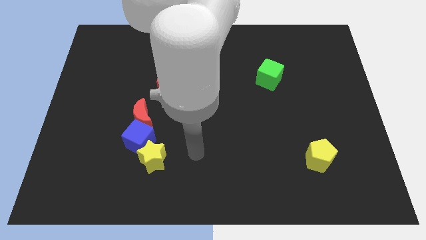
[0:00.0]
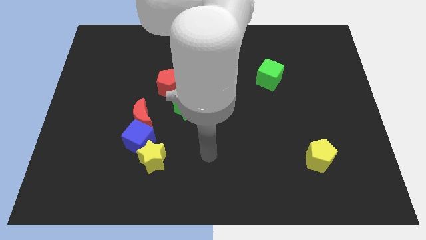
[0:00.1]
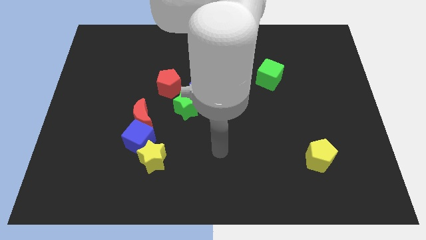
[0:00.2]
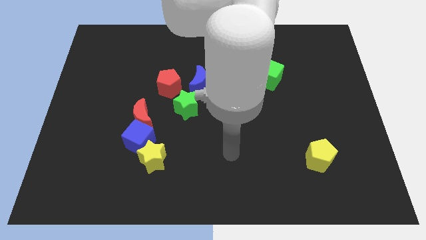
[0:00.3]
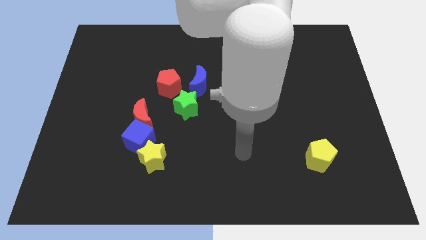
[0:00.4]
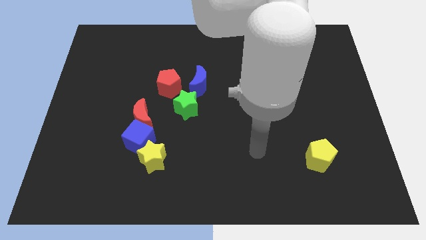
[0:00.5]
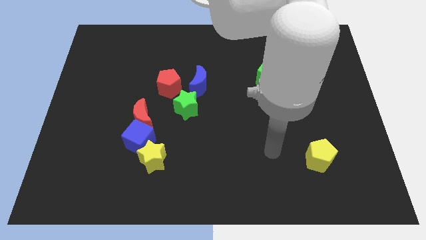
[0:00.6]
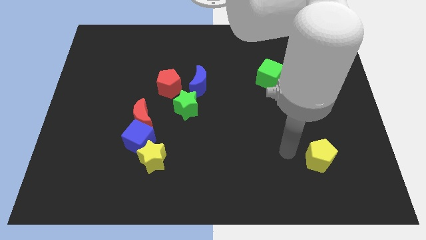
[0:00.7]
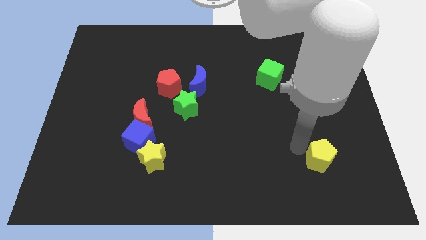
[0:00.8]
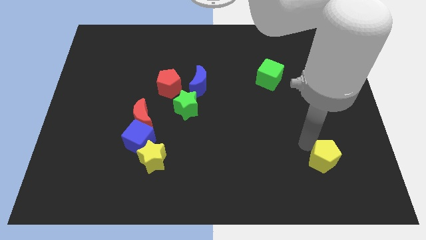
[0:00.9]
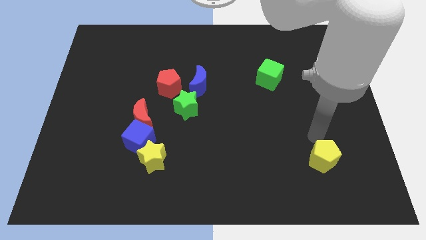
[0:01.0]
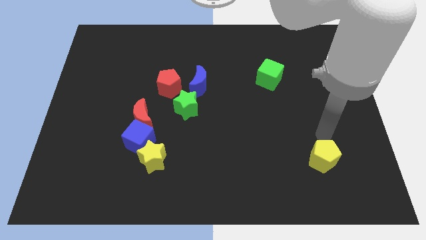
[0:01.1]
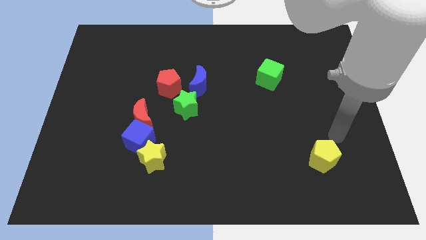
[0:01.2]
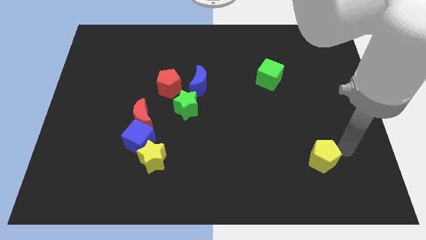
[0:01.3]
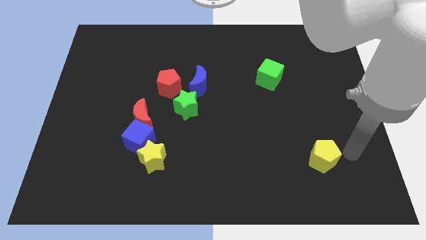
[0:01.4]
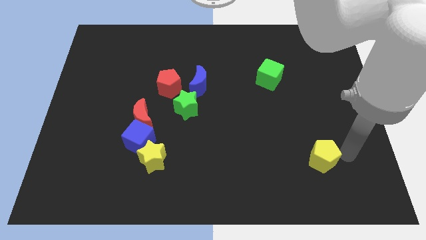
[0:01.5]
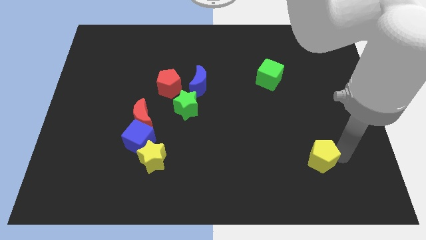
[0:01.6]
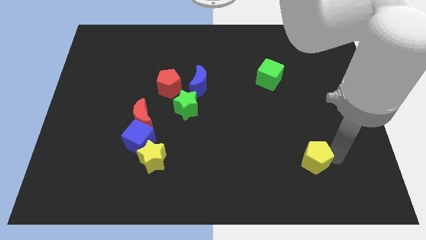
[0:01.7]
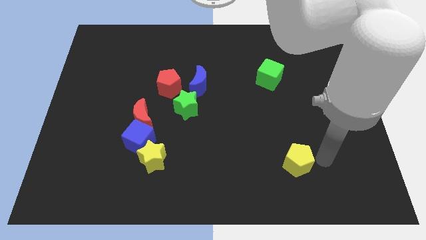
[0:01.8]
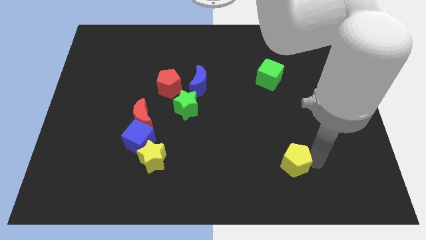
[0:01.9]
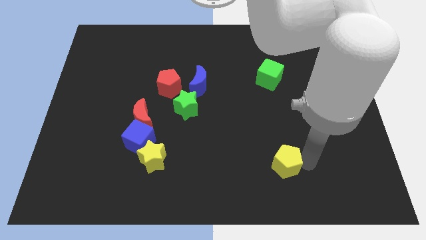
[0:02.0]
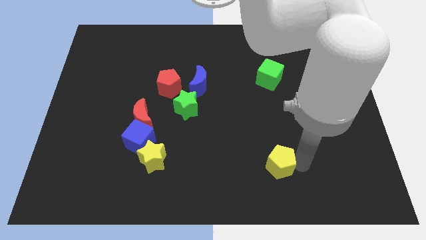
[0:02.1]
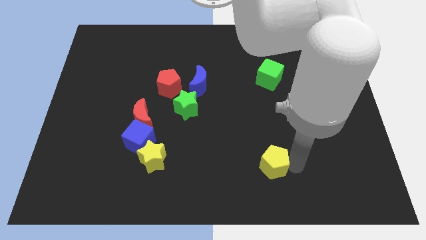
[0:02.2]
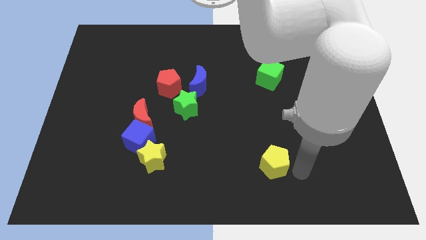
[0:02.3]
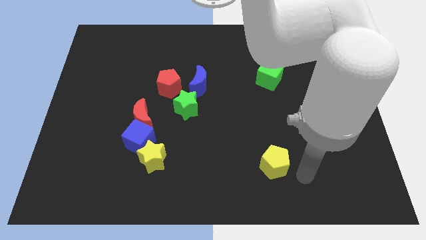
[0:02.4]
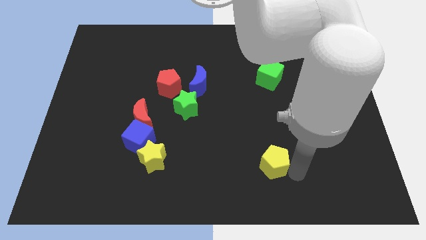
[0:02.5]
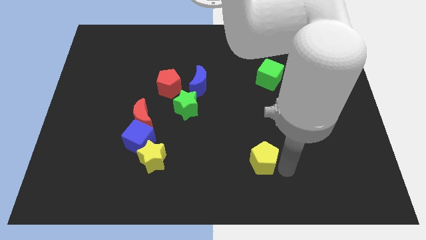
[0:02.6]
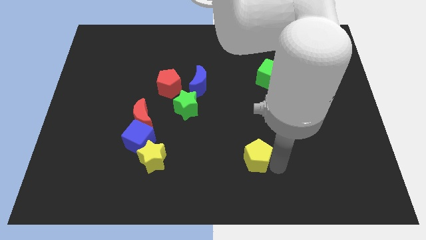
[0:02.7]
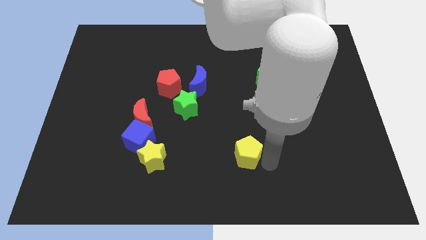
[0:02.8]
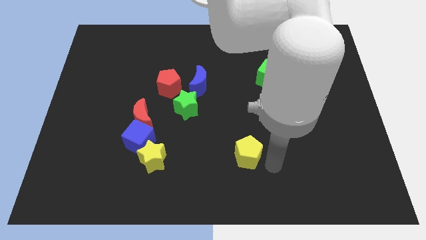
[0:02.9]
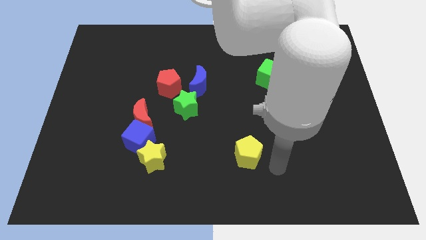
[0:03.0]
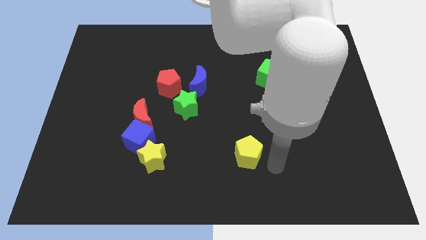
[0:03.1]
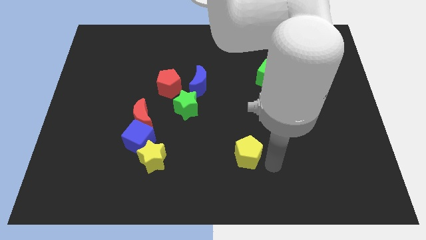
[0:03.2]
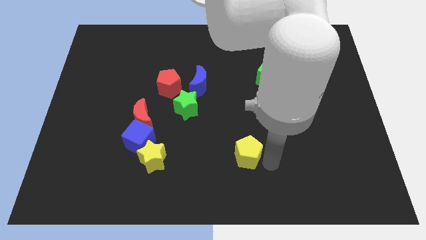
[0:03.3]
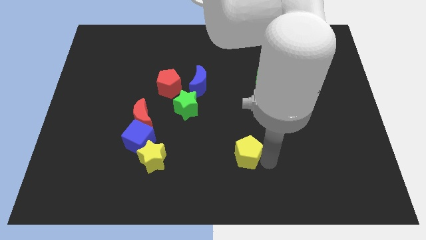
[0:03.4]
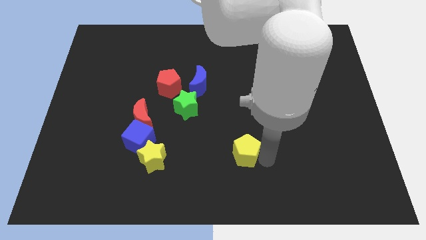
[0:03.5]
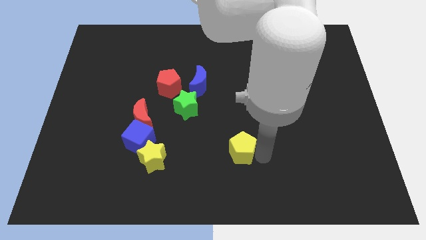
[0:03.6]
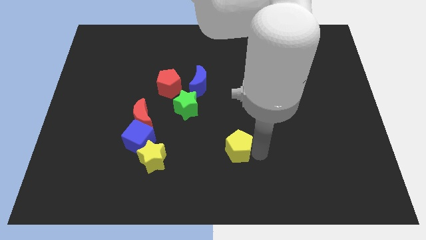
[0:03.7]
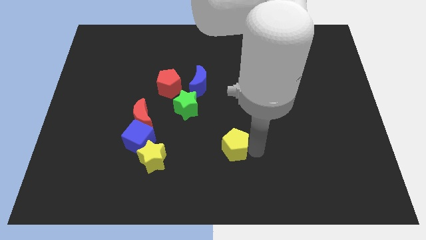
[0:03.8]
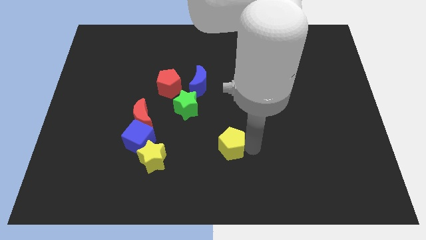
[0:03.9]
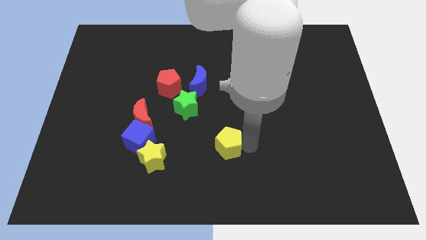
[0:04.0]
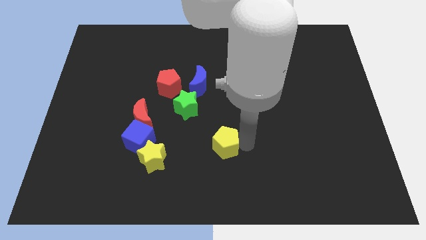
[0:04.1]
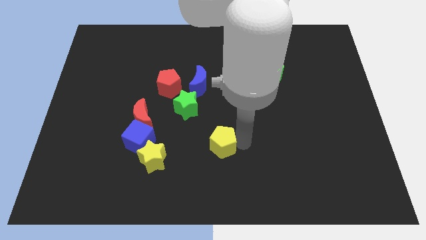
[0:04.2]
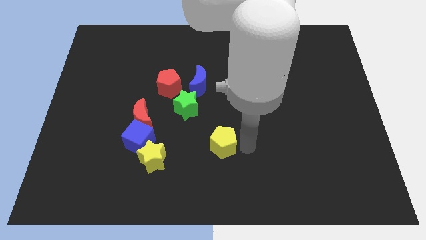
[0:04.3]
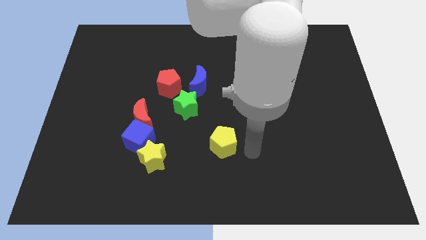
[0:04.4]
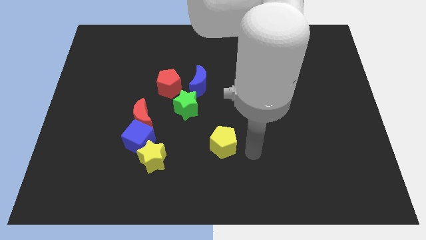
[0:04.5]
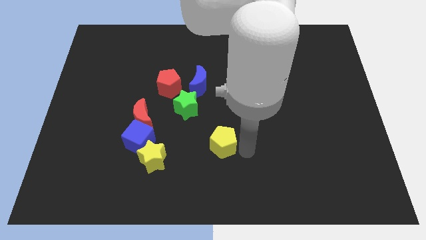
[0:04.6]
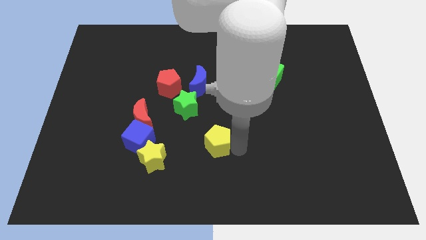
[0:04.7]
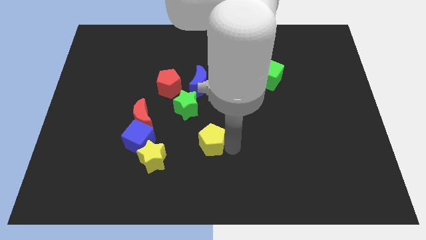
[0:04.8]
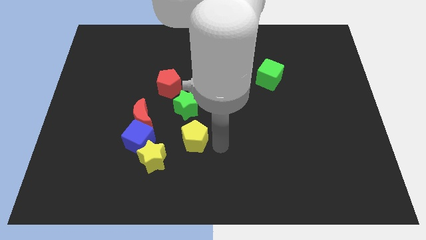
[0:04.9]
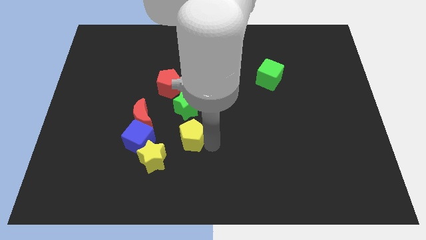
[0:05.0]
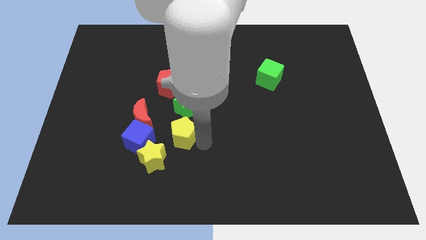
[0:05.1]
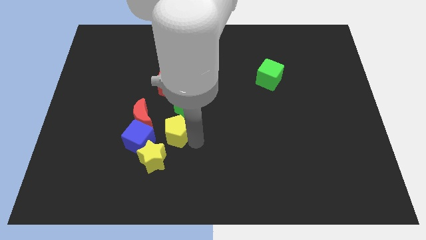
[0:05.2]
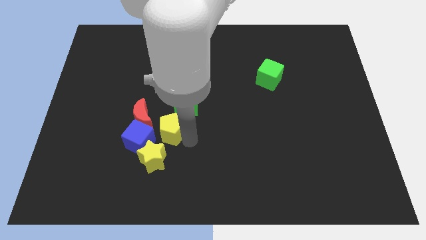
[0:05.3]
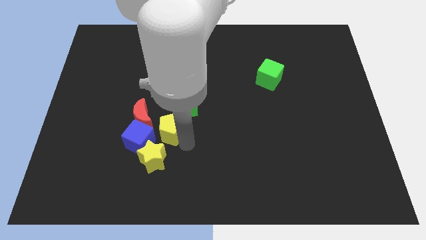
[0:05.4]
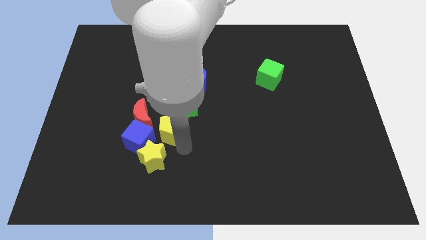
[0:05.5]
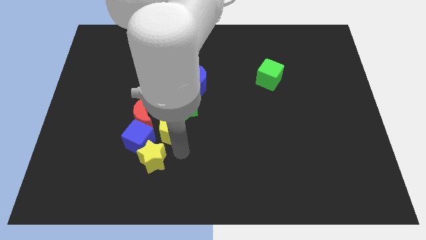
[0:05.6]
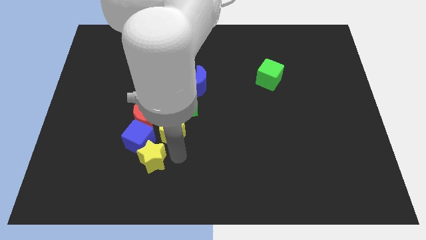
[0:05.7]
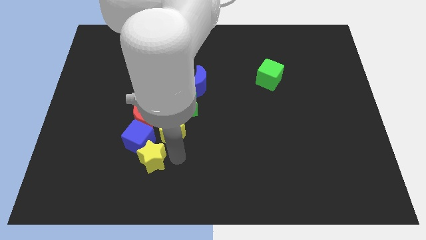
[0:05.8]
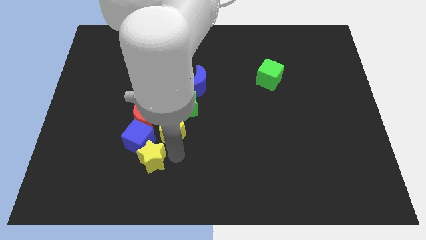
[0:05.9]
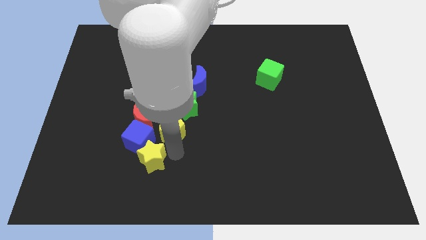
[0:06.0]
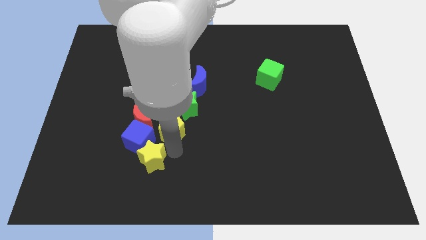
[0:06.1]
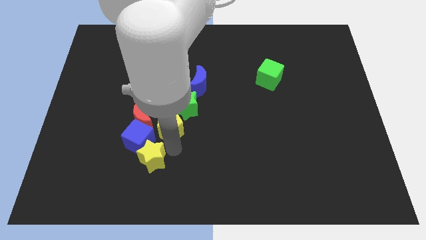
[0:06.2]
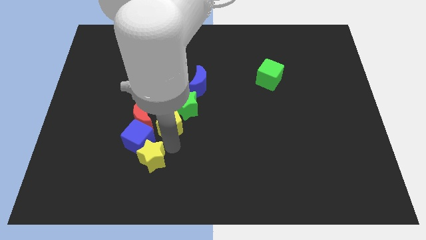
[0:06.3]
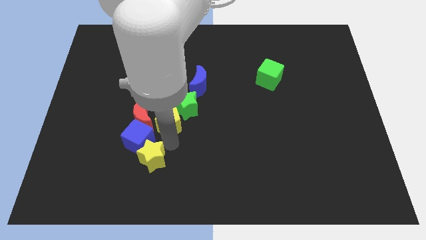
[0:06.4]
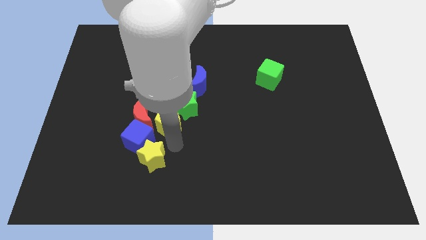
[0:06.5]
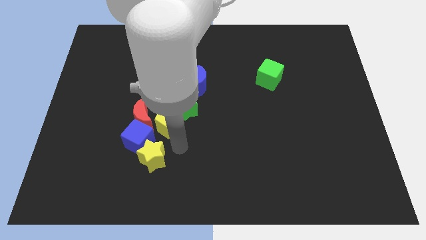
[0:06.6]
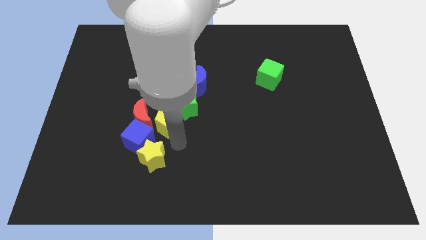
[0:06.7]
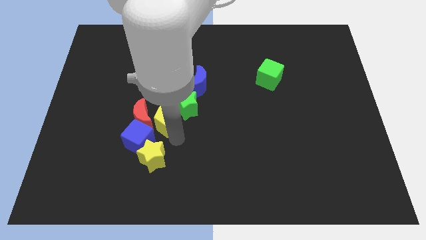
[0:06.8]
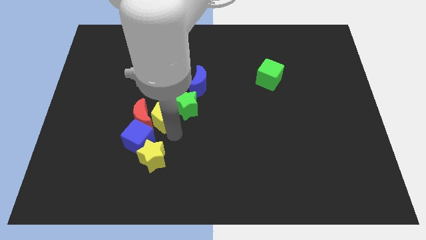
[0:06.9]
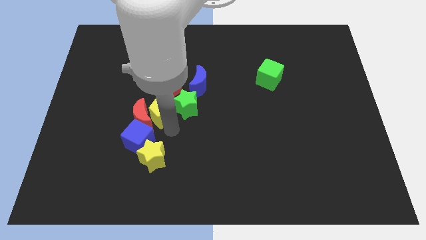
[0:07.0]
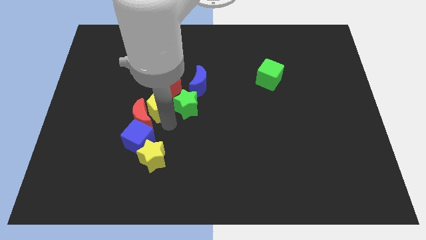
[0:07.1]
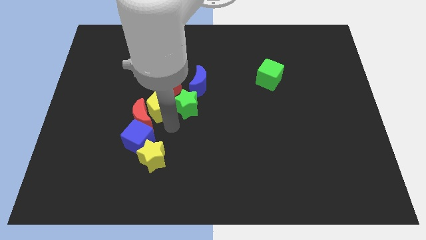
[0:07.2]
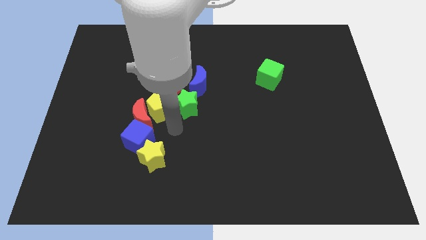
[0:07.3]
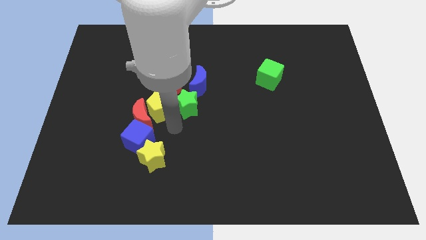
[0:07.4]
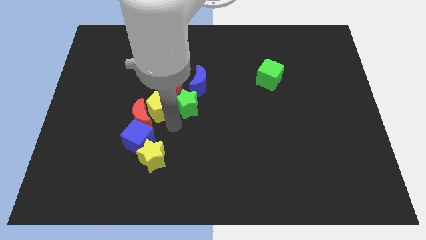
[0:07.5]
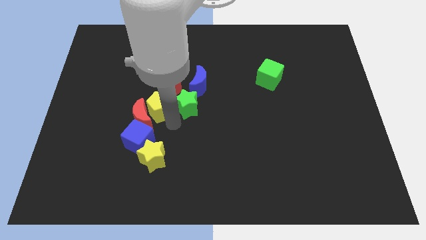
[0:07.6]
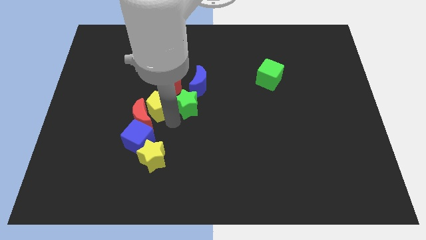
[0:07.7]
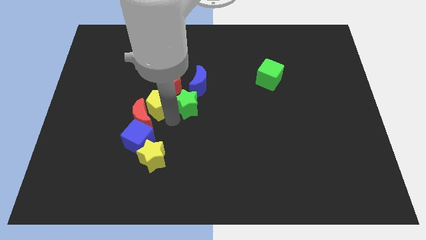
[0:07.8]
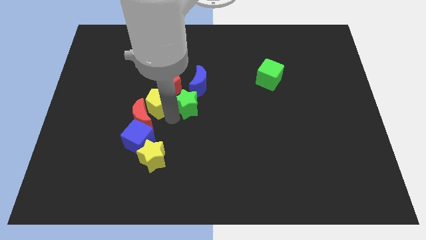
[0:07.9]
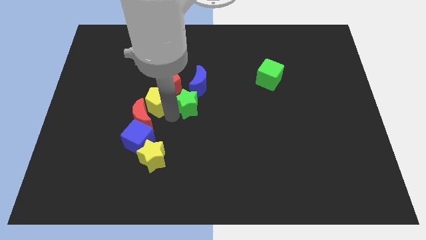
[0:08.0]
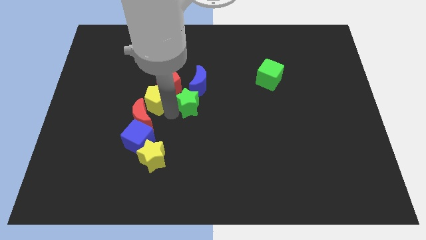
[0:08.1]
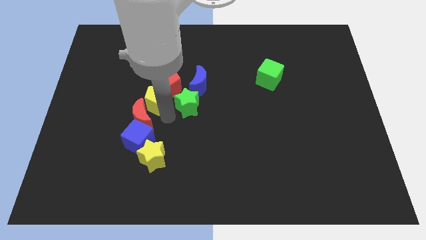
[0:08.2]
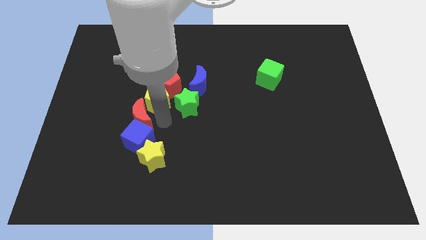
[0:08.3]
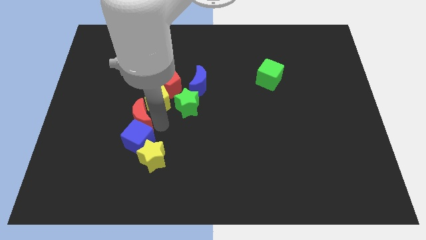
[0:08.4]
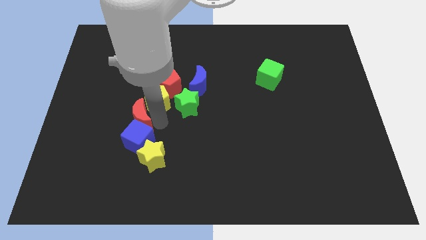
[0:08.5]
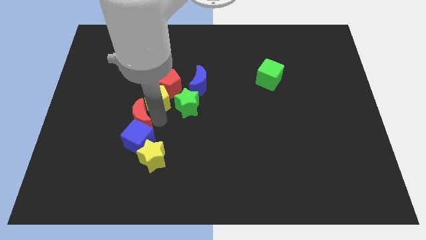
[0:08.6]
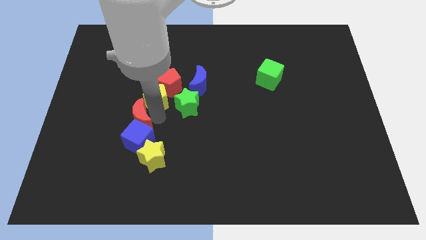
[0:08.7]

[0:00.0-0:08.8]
slide the yellow pentagon left of the blue moon
